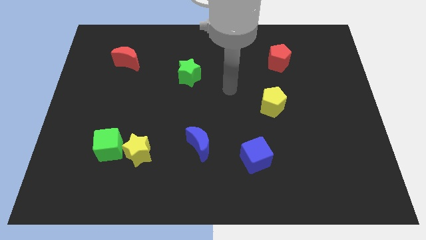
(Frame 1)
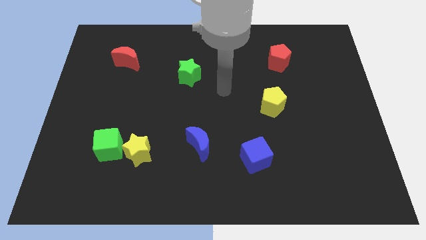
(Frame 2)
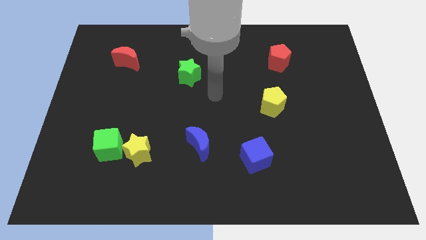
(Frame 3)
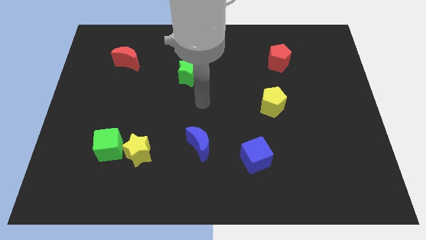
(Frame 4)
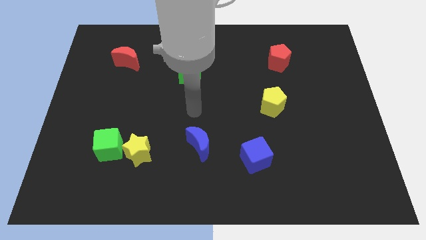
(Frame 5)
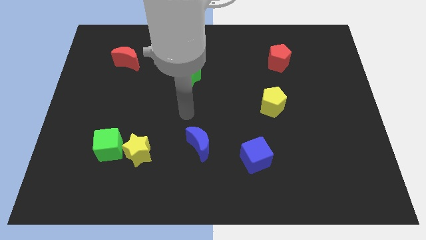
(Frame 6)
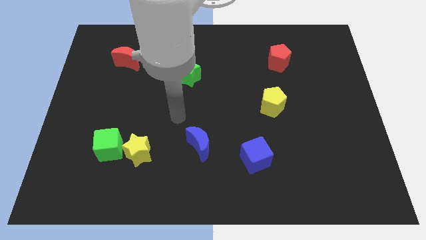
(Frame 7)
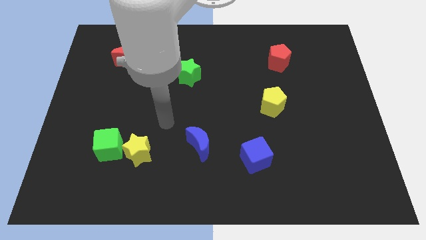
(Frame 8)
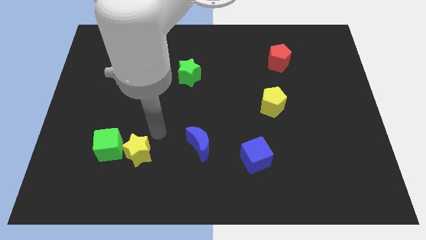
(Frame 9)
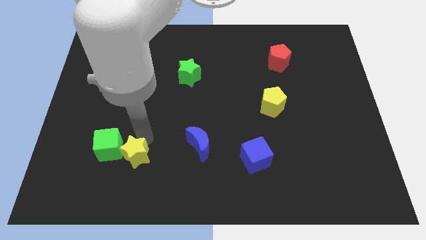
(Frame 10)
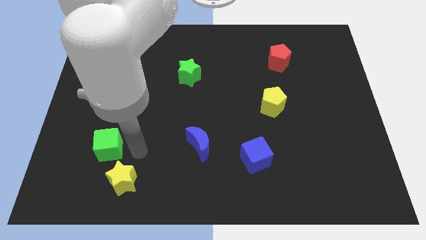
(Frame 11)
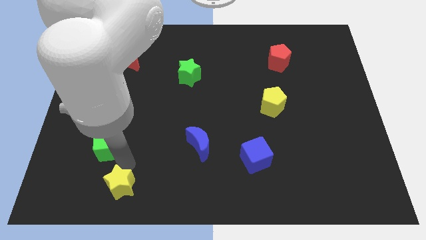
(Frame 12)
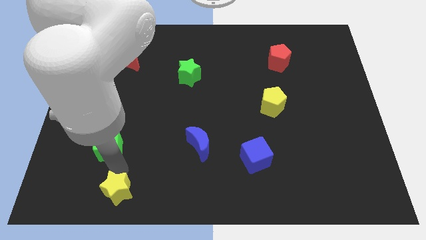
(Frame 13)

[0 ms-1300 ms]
move the green cube away from the yellow star

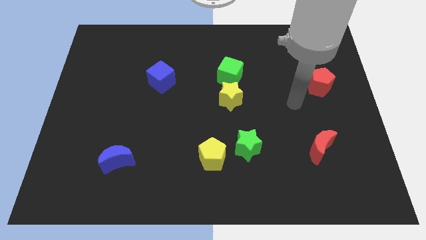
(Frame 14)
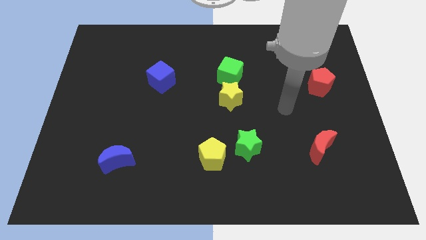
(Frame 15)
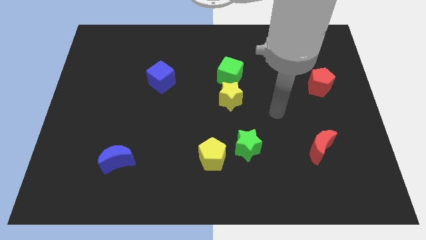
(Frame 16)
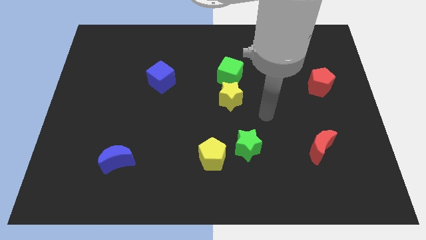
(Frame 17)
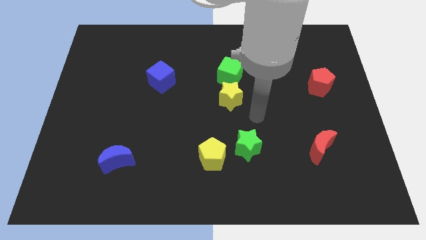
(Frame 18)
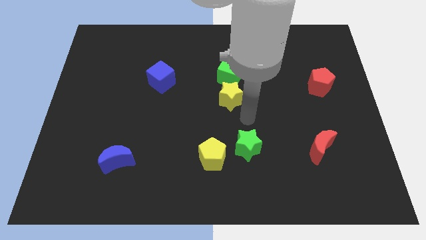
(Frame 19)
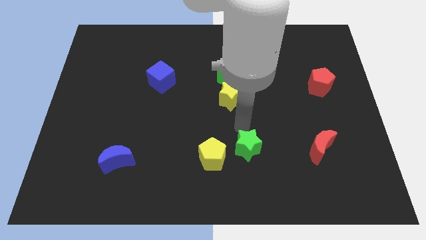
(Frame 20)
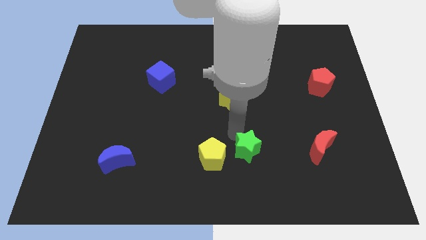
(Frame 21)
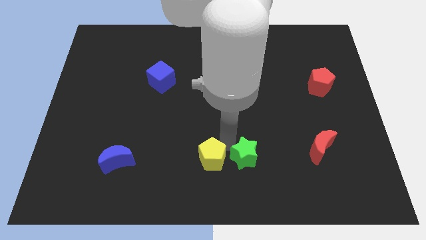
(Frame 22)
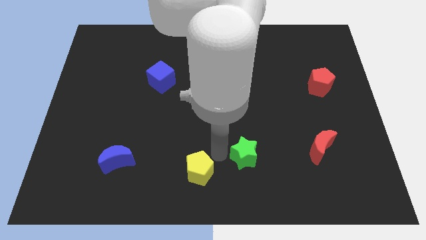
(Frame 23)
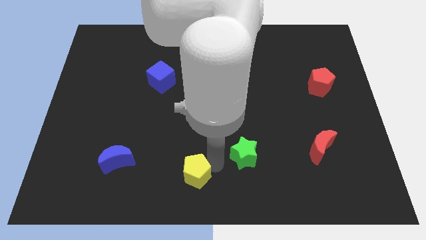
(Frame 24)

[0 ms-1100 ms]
separate the green star from the yellow pentagon

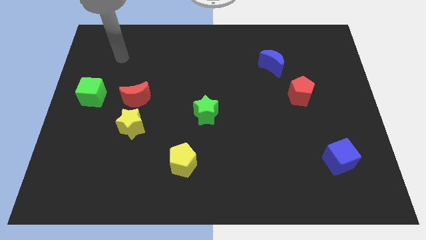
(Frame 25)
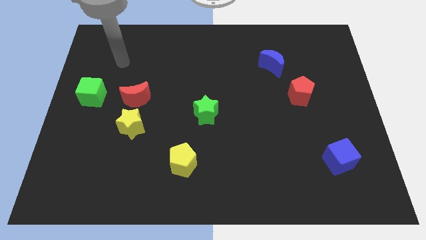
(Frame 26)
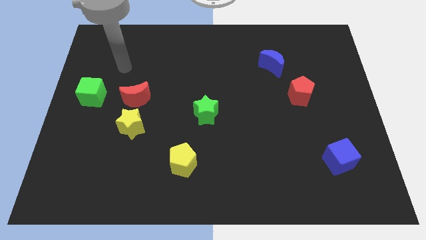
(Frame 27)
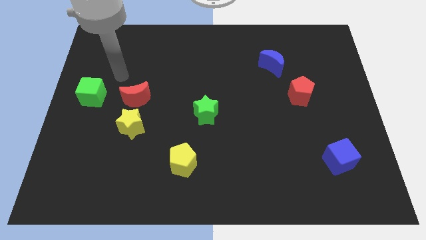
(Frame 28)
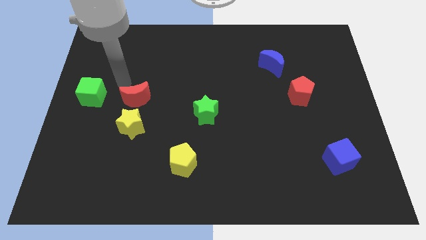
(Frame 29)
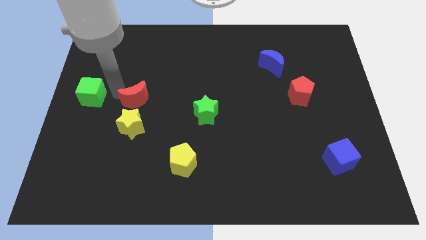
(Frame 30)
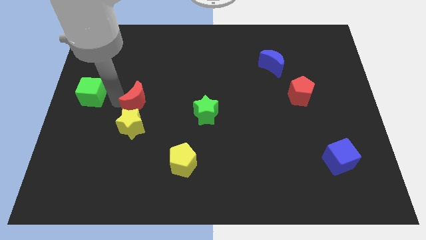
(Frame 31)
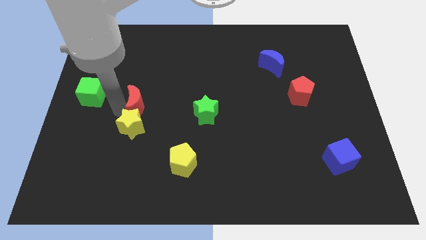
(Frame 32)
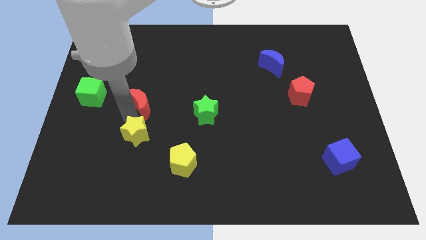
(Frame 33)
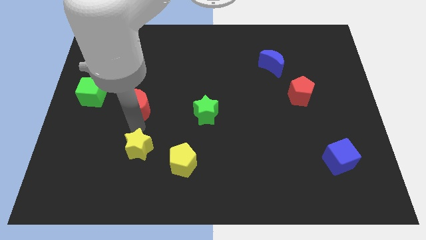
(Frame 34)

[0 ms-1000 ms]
separate the red moon from the yellow star

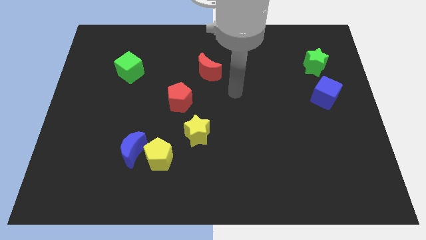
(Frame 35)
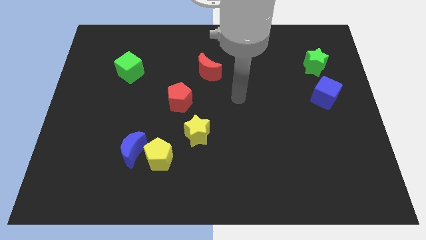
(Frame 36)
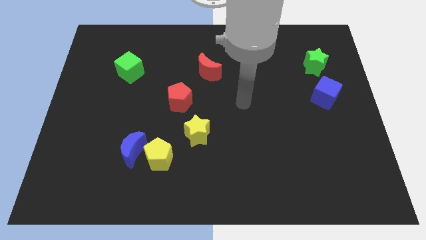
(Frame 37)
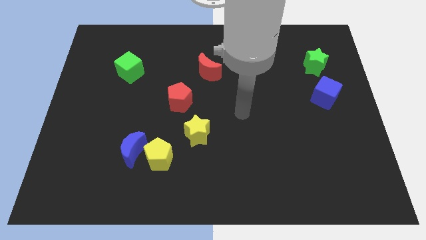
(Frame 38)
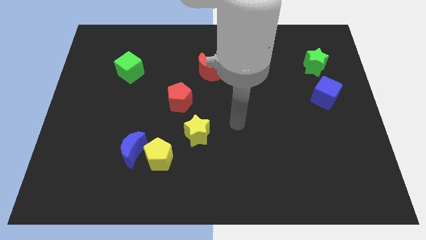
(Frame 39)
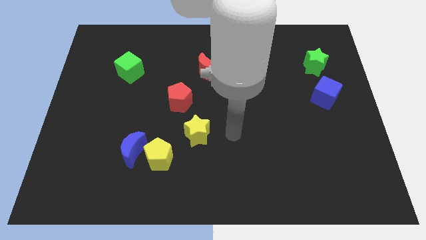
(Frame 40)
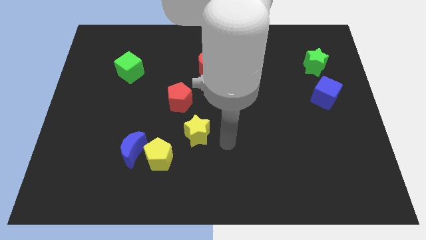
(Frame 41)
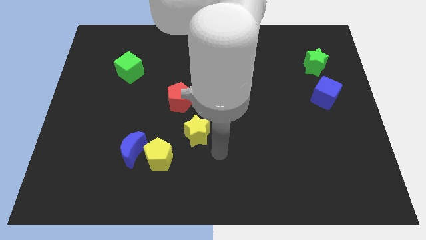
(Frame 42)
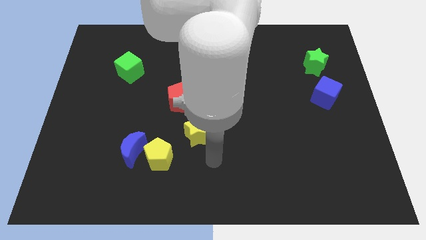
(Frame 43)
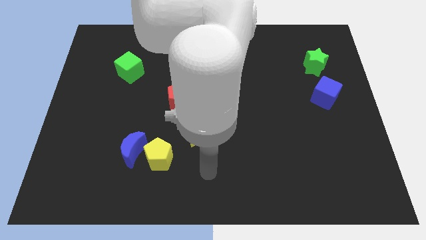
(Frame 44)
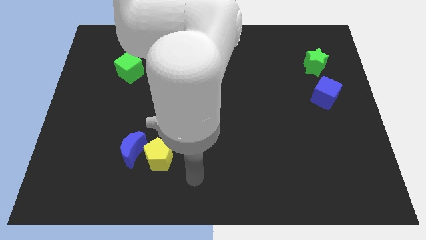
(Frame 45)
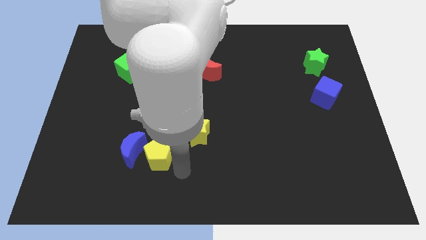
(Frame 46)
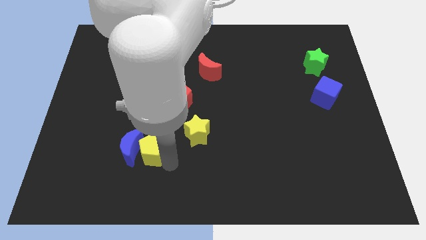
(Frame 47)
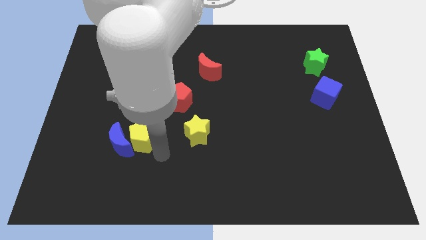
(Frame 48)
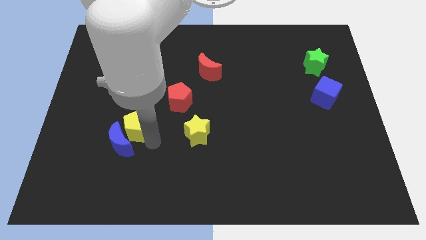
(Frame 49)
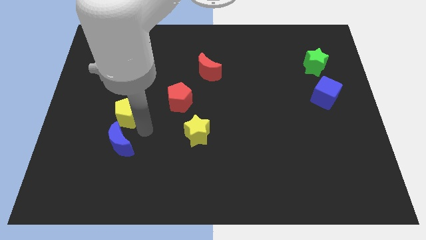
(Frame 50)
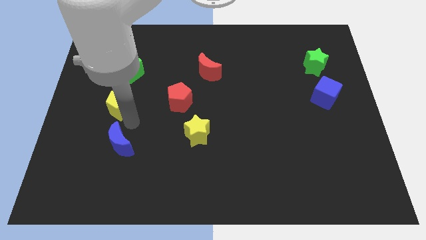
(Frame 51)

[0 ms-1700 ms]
move the blue moon away from the yellow pentagon

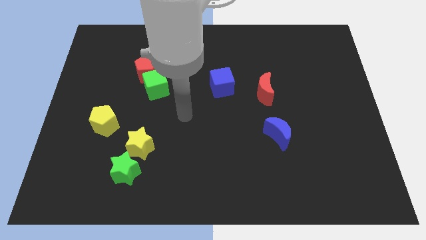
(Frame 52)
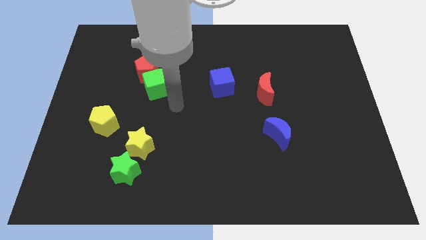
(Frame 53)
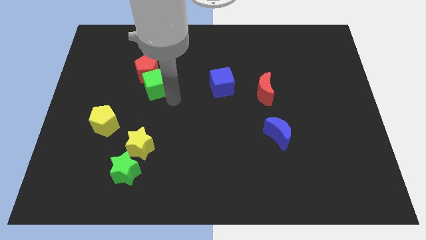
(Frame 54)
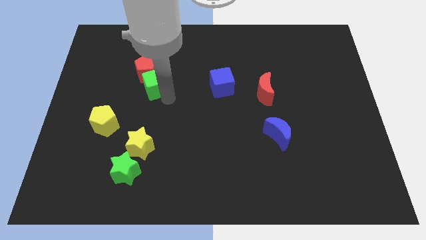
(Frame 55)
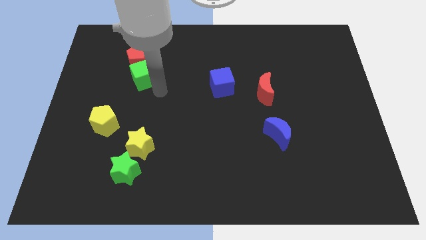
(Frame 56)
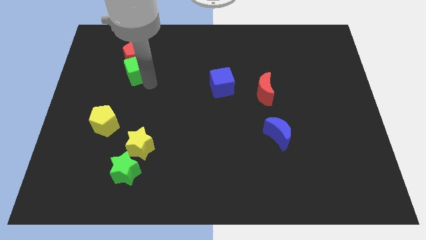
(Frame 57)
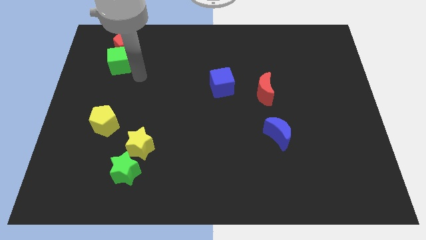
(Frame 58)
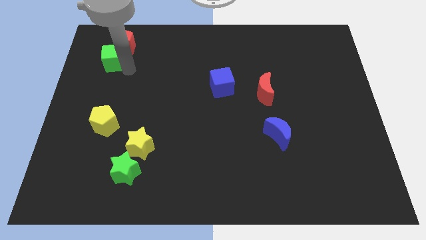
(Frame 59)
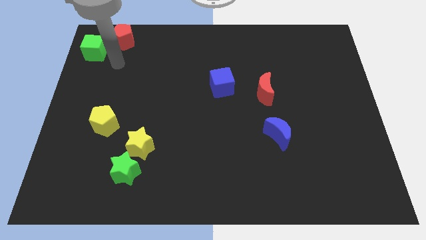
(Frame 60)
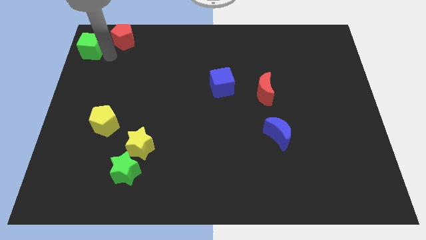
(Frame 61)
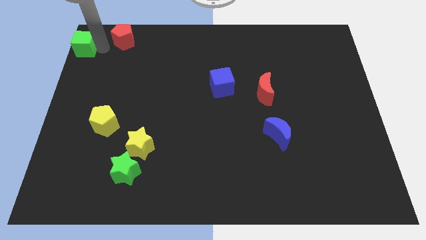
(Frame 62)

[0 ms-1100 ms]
separate the red pentagon from the green cube

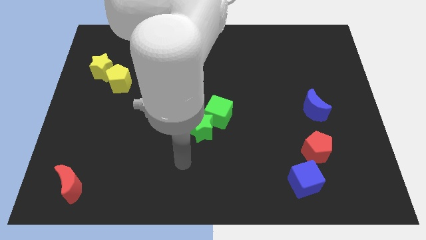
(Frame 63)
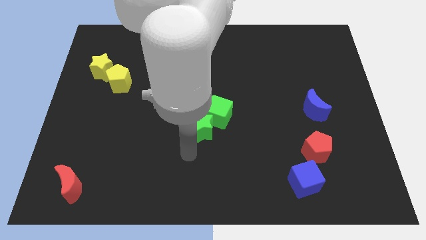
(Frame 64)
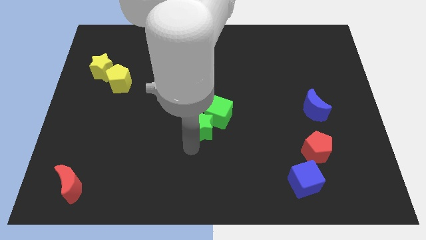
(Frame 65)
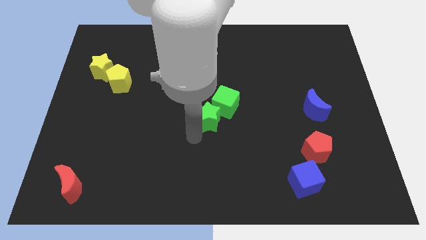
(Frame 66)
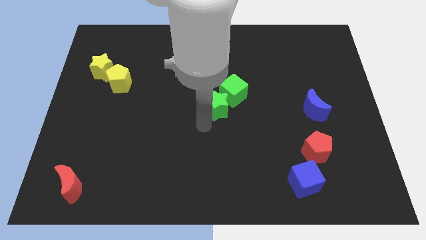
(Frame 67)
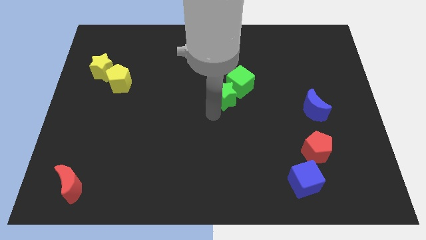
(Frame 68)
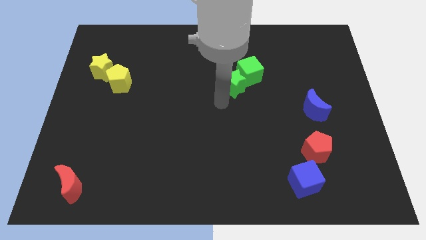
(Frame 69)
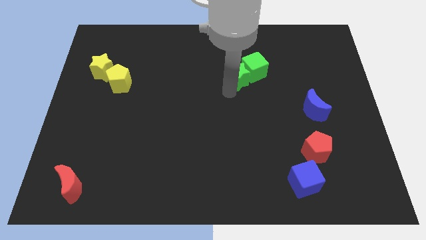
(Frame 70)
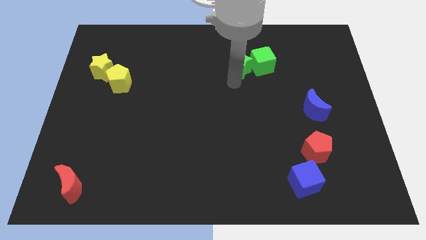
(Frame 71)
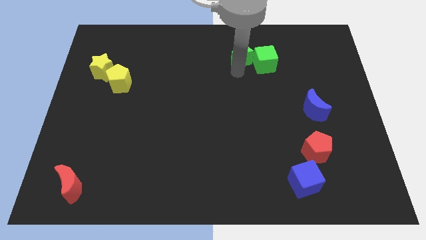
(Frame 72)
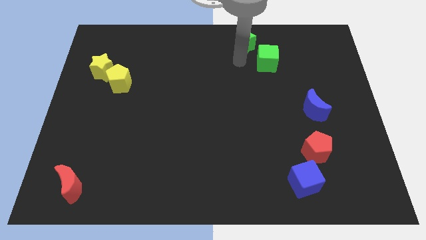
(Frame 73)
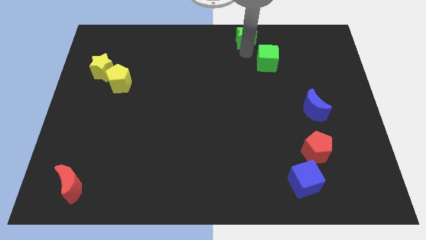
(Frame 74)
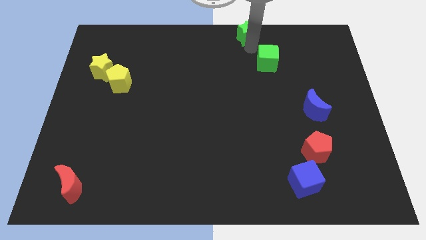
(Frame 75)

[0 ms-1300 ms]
separate the green cube from the green star

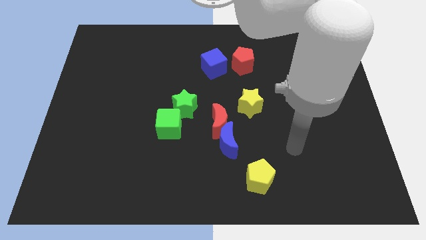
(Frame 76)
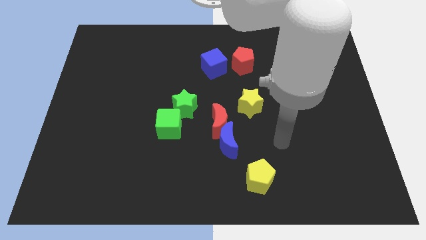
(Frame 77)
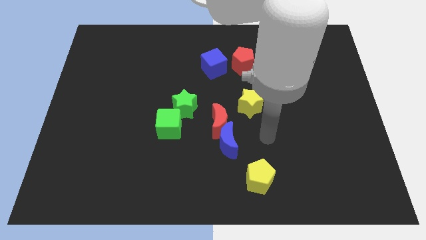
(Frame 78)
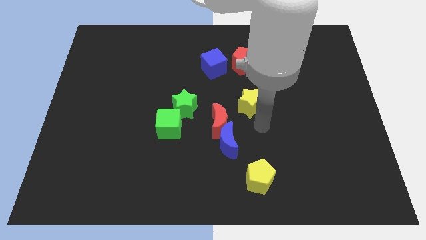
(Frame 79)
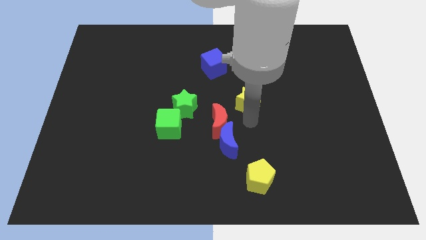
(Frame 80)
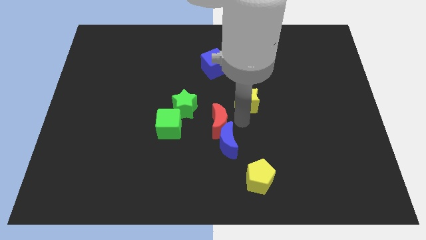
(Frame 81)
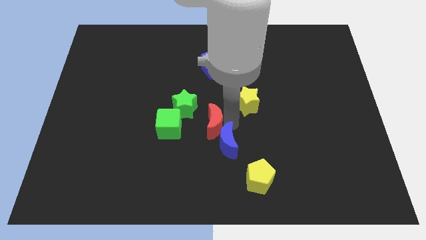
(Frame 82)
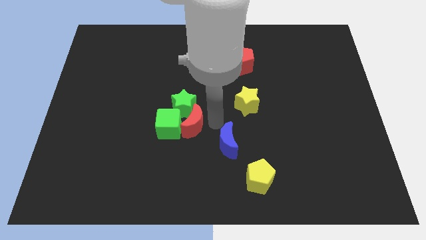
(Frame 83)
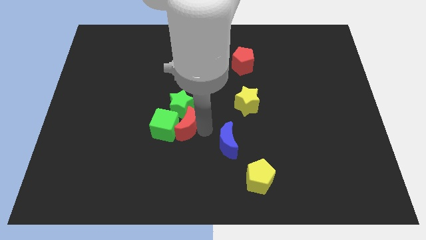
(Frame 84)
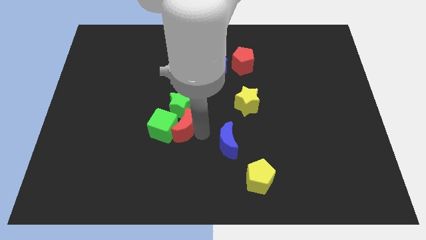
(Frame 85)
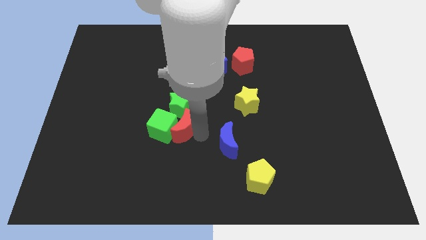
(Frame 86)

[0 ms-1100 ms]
separate the blue moon from the red moon

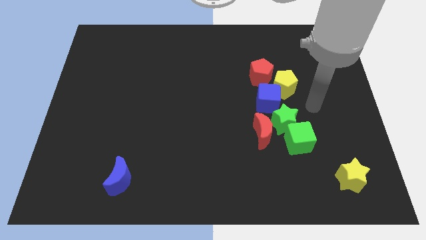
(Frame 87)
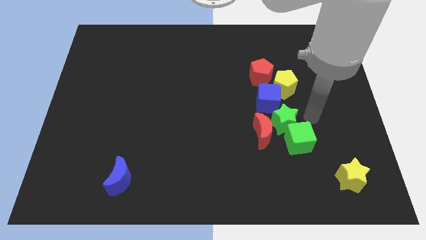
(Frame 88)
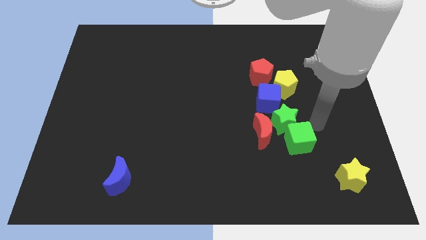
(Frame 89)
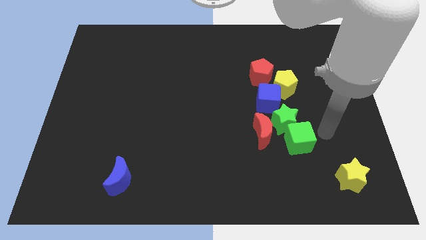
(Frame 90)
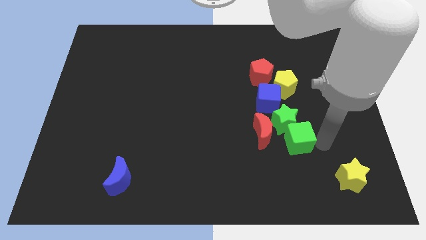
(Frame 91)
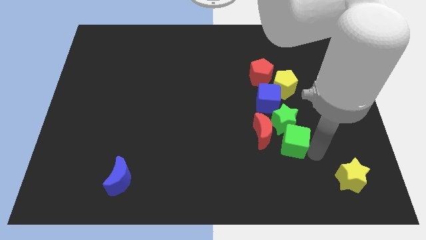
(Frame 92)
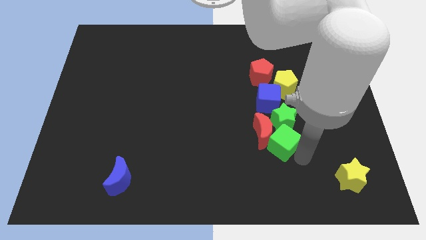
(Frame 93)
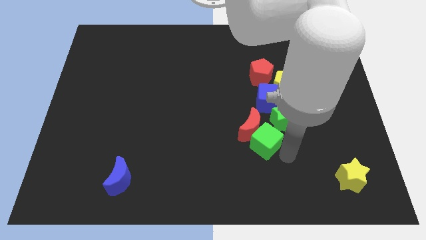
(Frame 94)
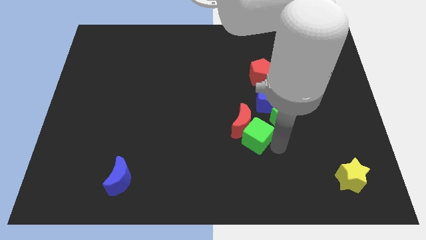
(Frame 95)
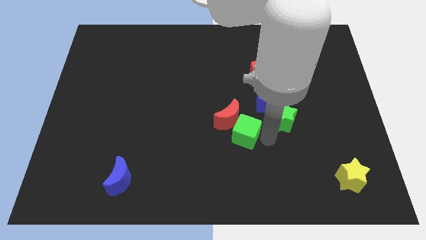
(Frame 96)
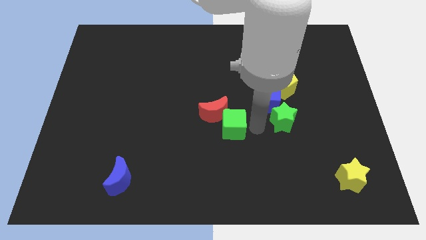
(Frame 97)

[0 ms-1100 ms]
separate the green star from the clump
